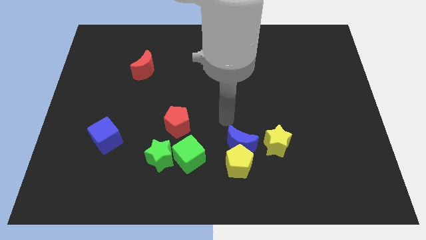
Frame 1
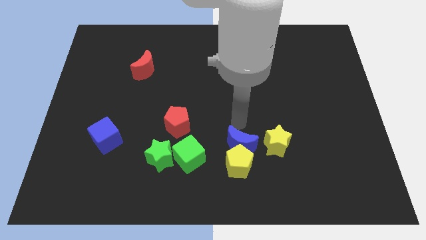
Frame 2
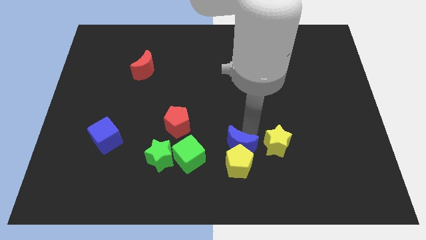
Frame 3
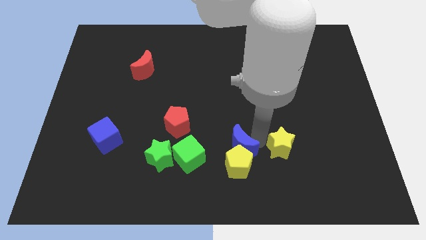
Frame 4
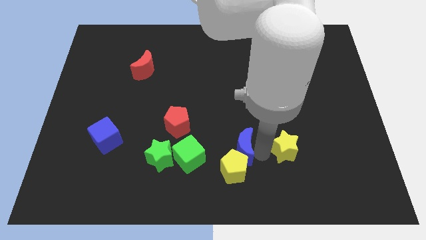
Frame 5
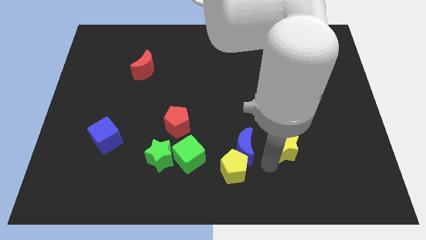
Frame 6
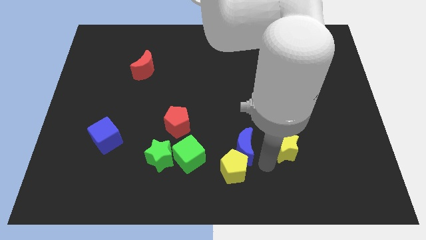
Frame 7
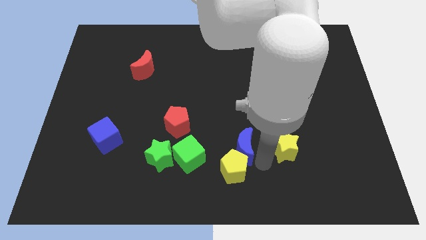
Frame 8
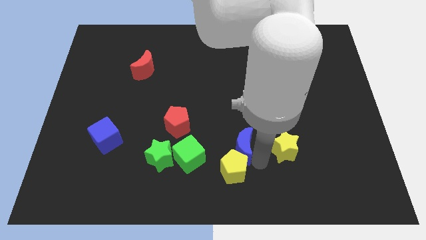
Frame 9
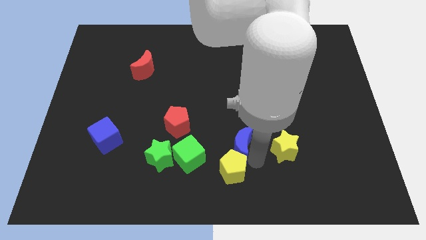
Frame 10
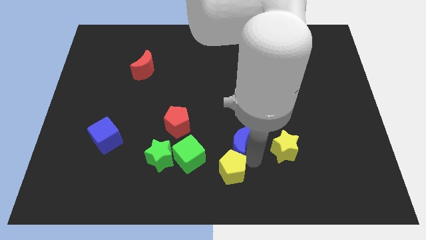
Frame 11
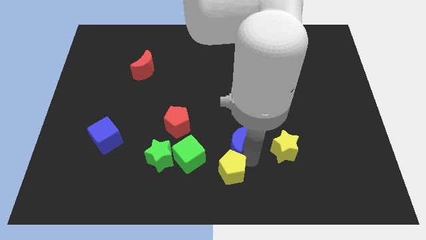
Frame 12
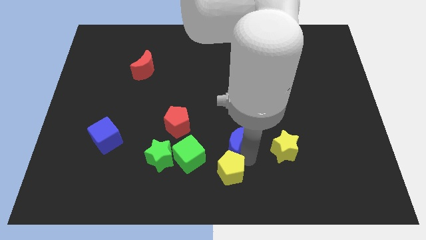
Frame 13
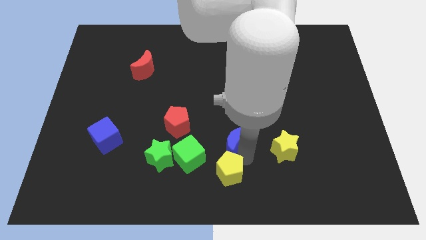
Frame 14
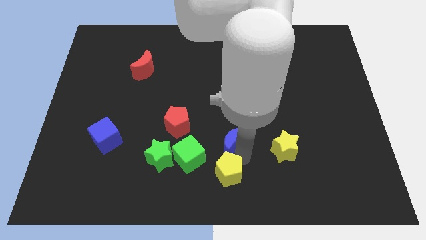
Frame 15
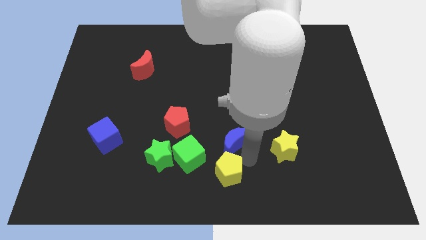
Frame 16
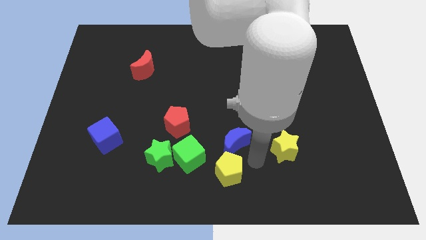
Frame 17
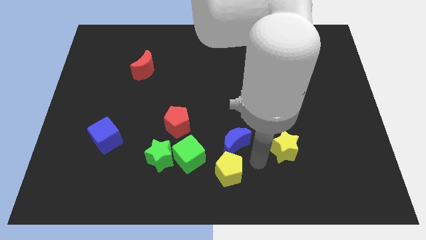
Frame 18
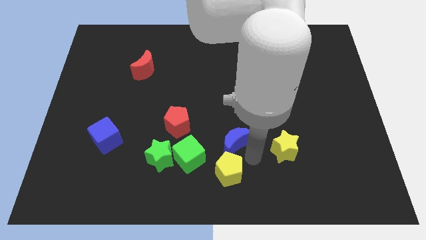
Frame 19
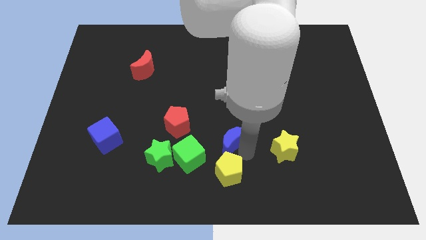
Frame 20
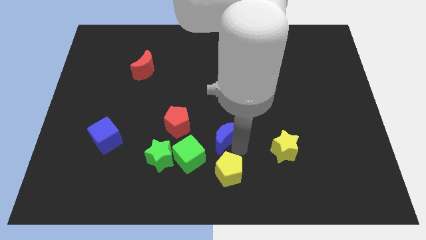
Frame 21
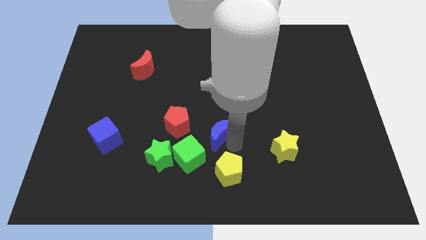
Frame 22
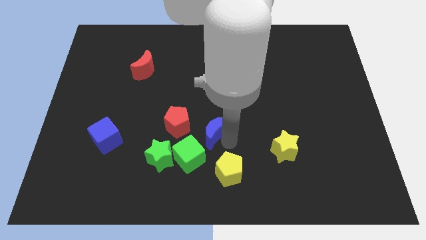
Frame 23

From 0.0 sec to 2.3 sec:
separate the blue moon from the yellow pentagon and yellow star

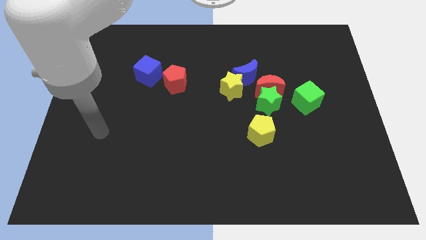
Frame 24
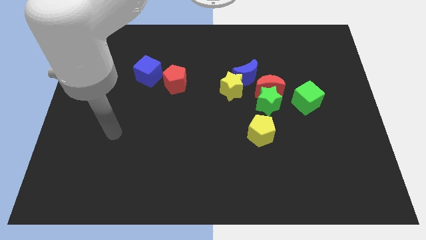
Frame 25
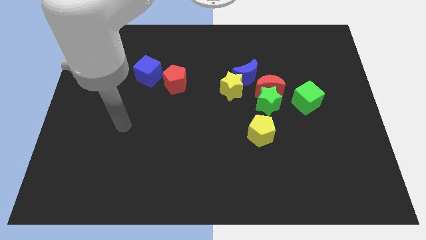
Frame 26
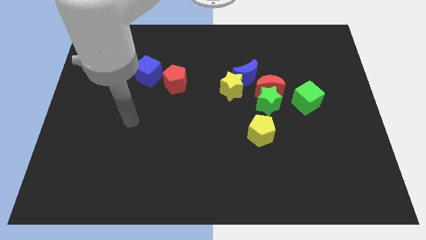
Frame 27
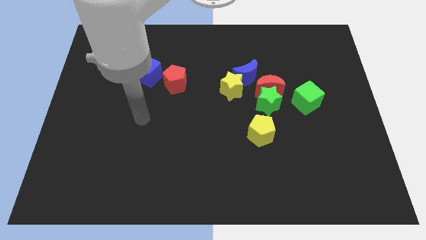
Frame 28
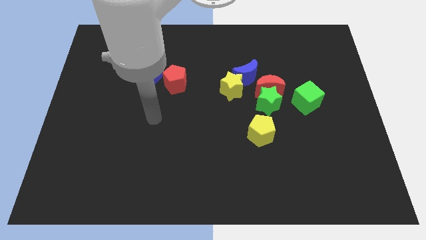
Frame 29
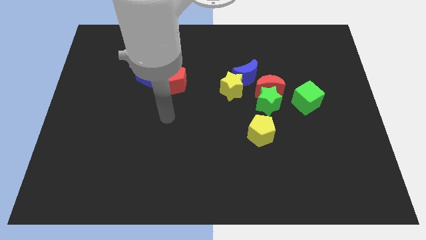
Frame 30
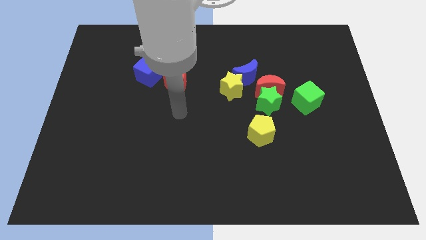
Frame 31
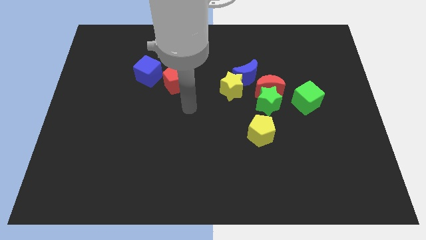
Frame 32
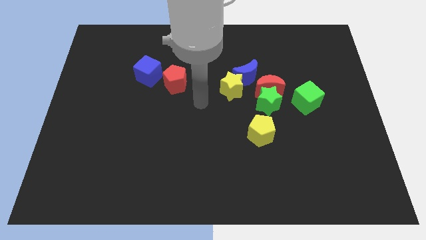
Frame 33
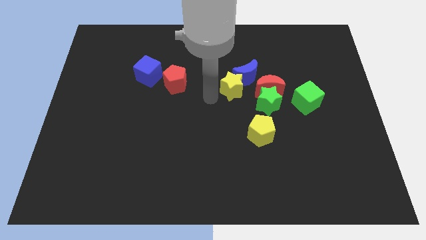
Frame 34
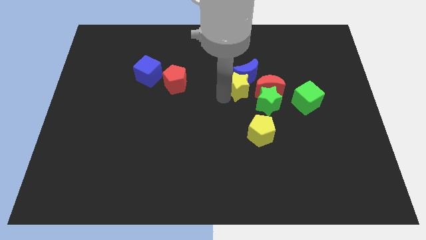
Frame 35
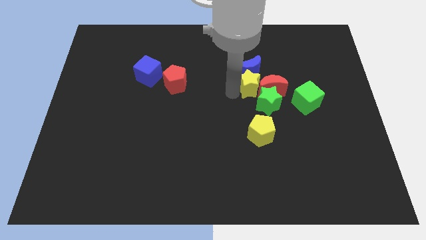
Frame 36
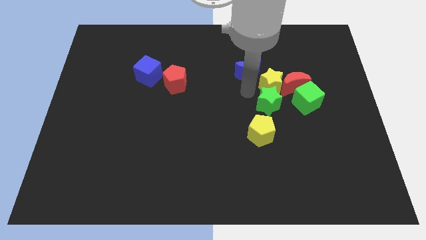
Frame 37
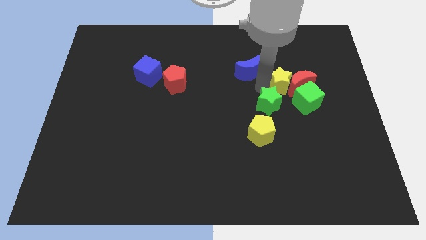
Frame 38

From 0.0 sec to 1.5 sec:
move the blue moon away from the group

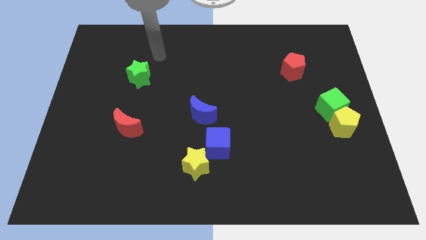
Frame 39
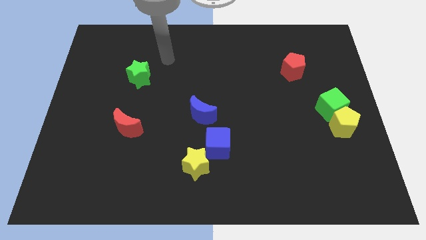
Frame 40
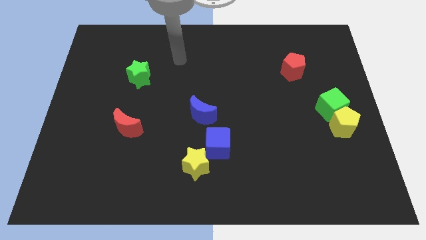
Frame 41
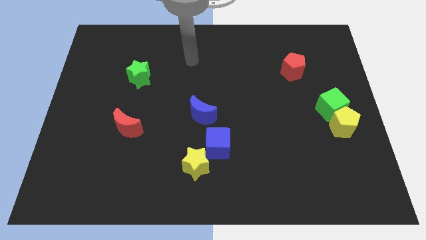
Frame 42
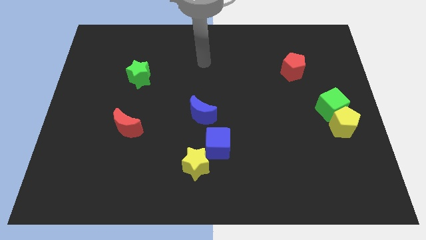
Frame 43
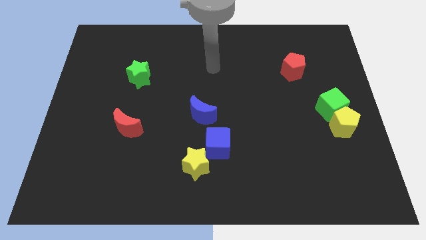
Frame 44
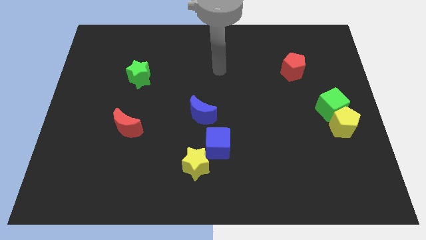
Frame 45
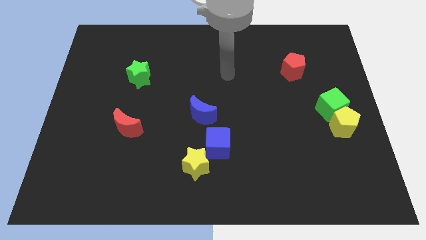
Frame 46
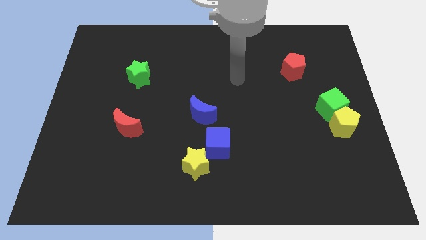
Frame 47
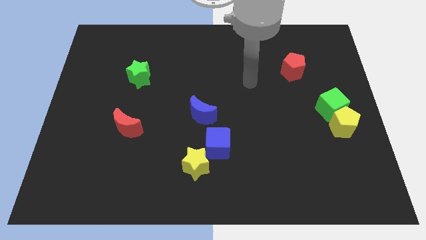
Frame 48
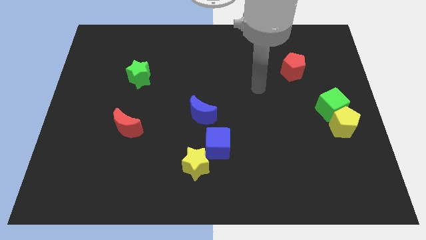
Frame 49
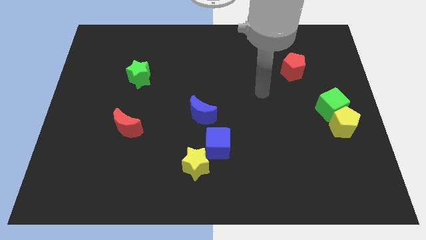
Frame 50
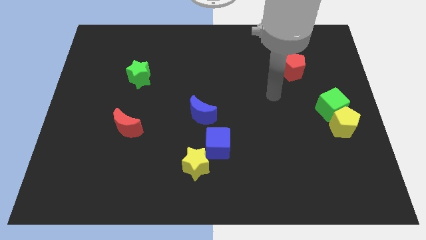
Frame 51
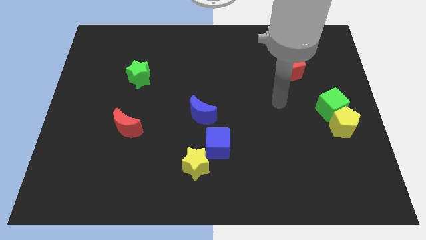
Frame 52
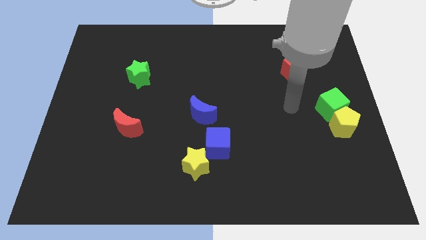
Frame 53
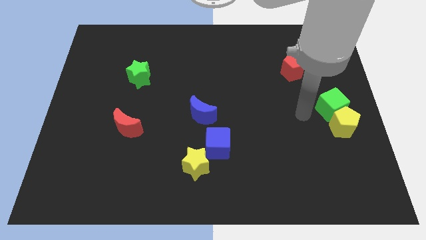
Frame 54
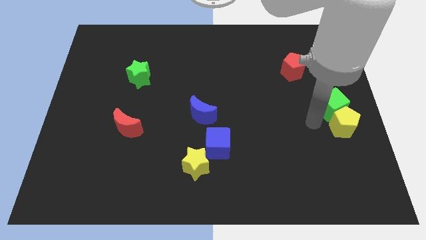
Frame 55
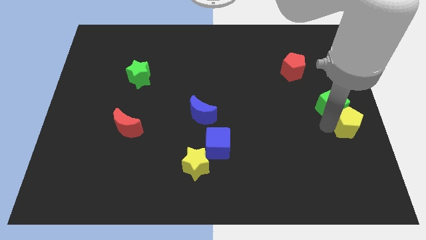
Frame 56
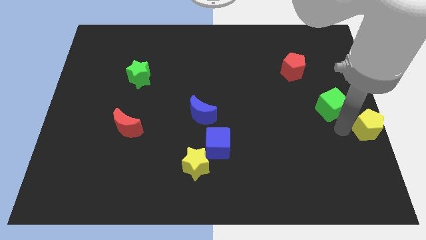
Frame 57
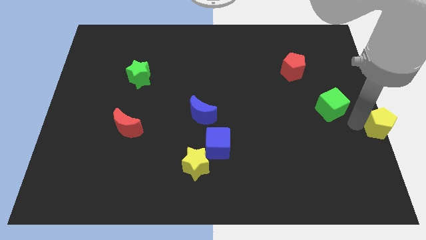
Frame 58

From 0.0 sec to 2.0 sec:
move the green cube away from the yellow pentagon

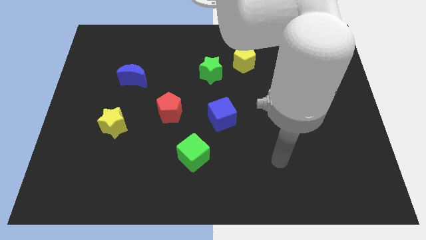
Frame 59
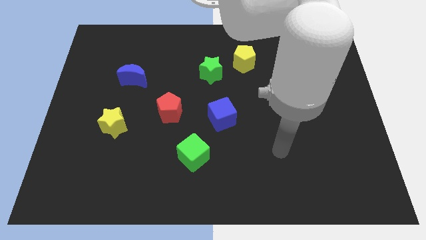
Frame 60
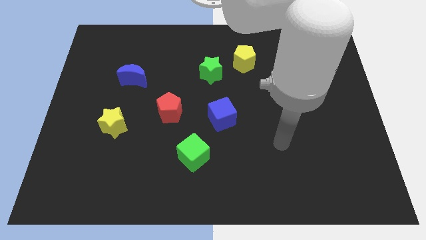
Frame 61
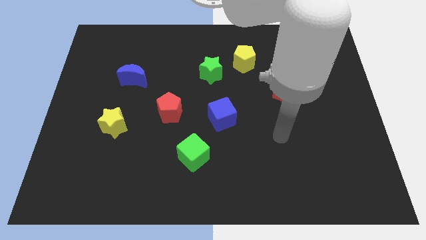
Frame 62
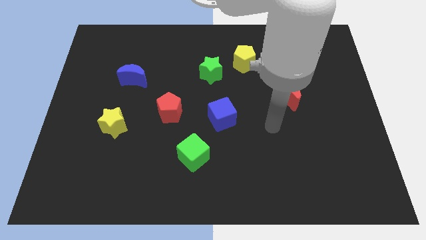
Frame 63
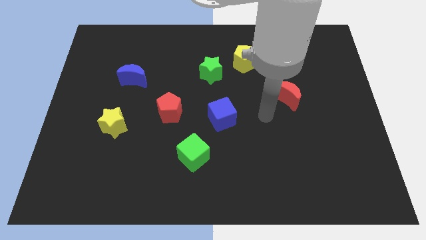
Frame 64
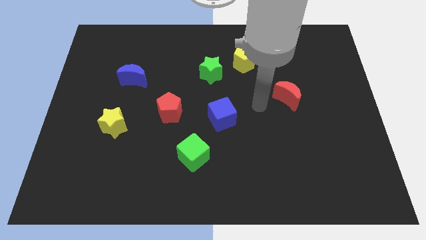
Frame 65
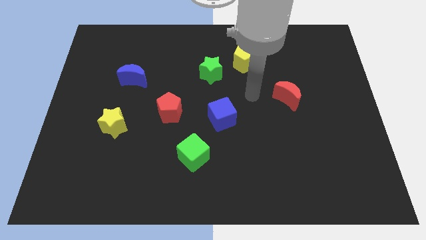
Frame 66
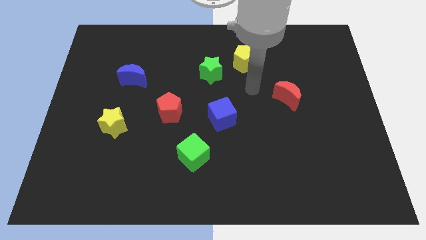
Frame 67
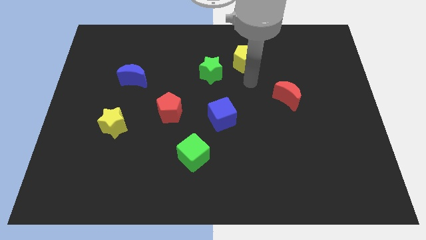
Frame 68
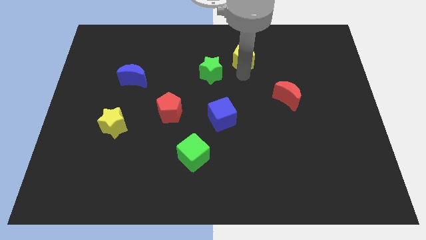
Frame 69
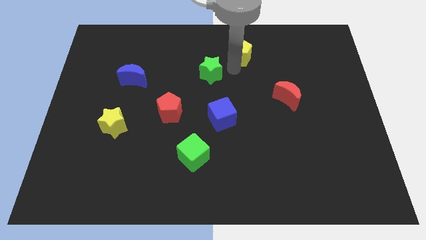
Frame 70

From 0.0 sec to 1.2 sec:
separate the green star from the yellow pentagon

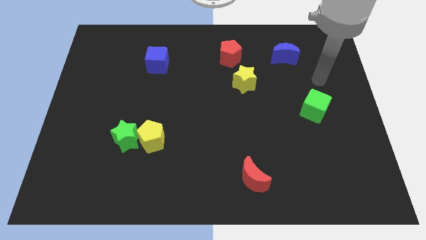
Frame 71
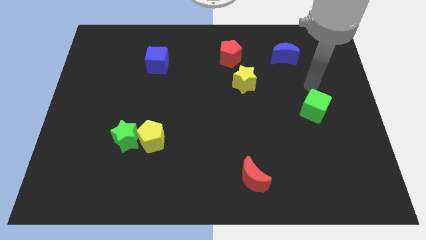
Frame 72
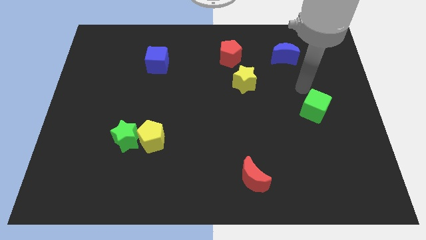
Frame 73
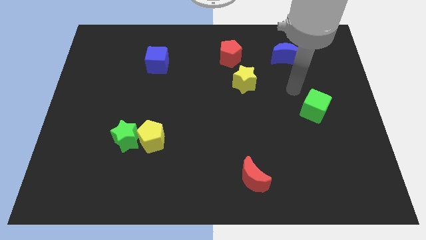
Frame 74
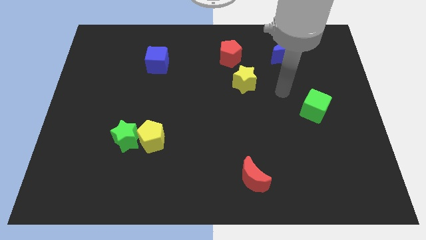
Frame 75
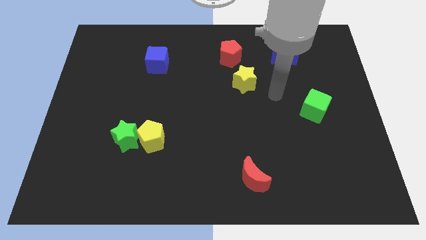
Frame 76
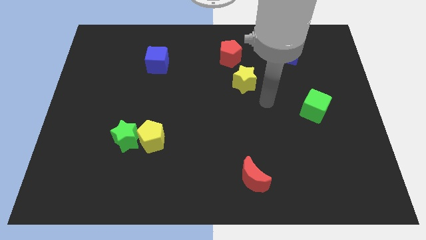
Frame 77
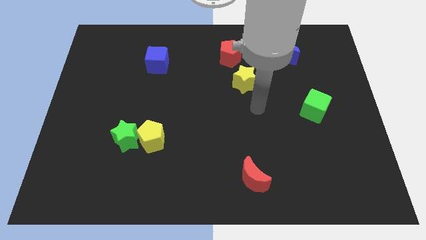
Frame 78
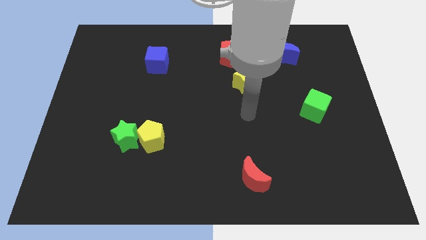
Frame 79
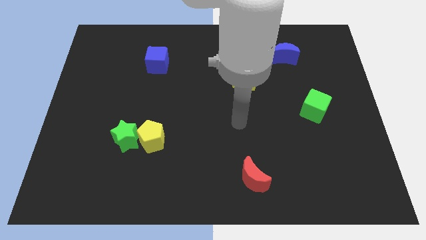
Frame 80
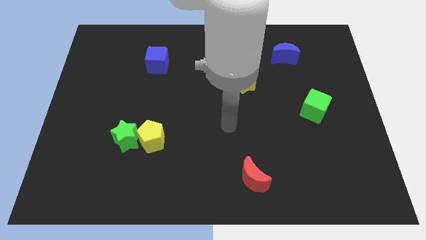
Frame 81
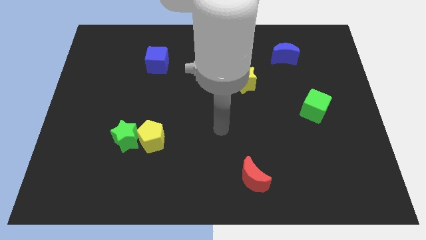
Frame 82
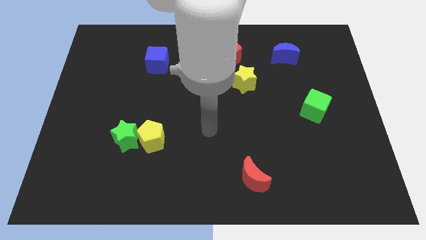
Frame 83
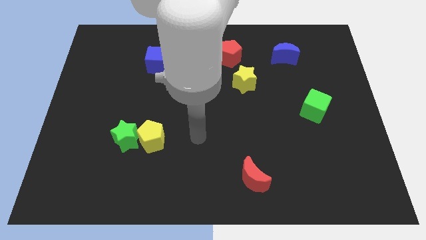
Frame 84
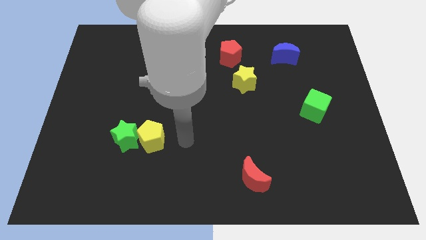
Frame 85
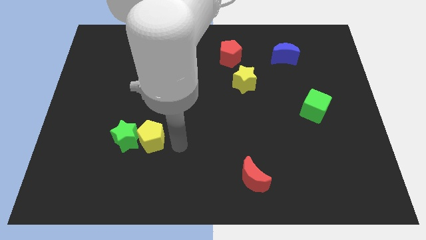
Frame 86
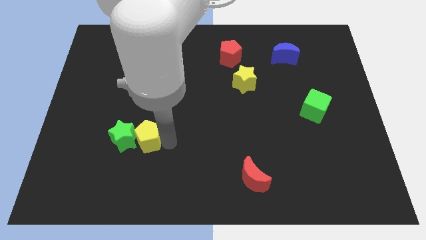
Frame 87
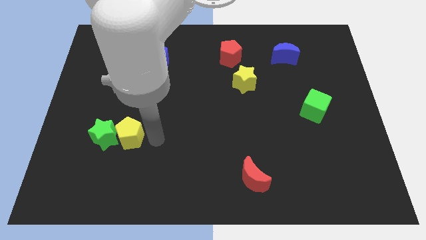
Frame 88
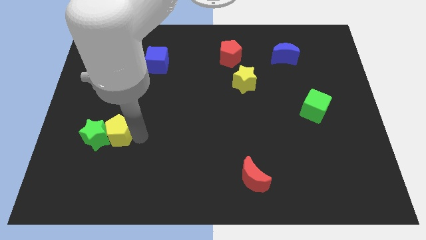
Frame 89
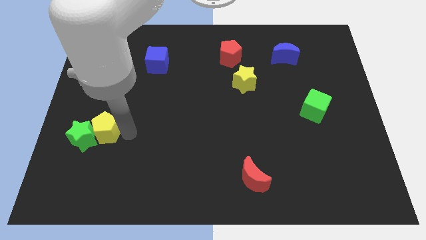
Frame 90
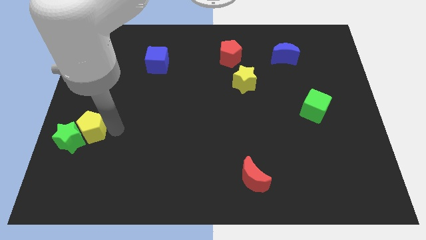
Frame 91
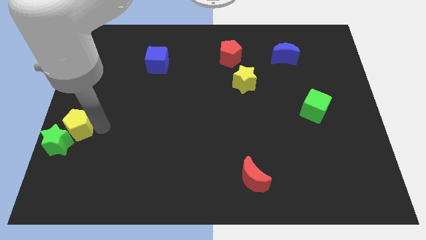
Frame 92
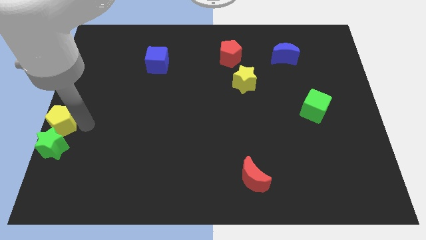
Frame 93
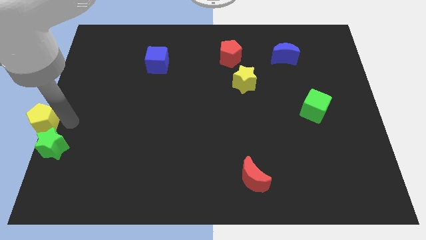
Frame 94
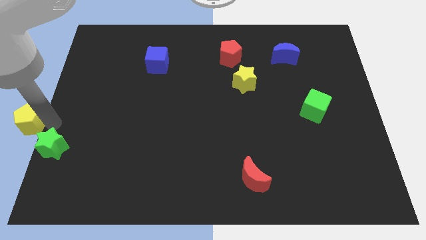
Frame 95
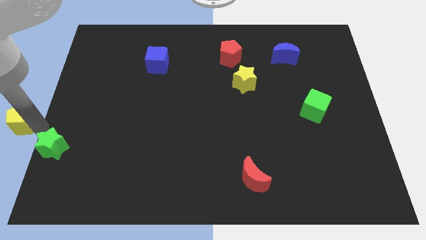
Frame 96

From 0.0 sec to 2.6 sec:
move the green star away from the yellow pentagon
